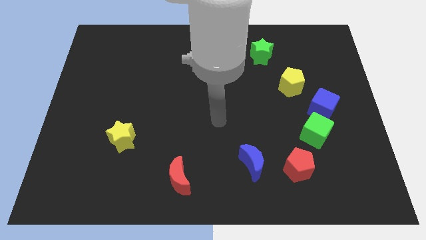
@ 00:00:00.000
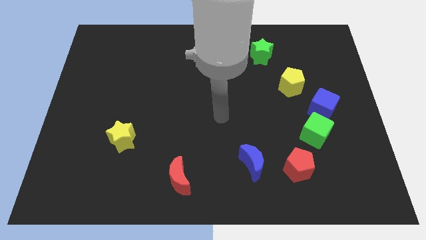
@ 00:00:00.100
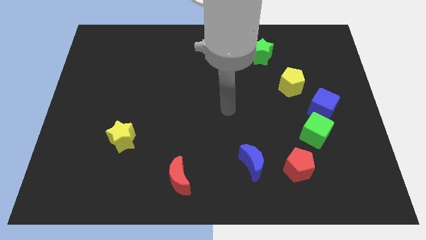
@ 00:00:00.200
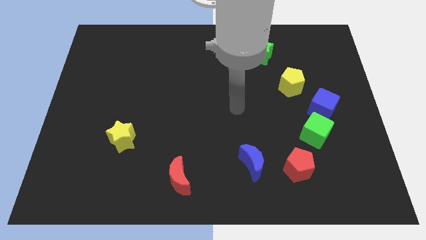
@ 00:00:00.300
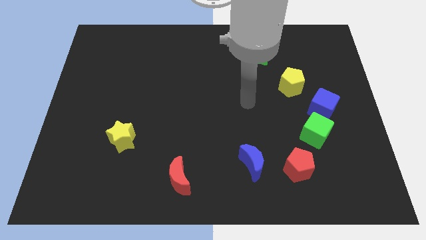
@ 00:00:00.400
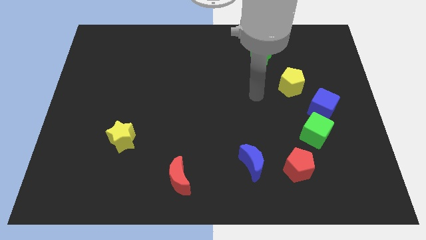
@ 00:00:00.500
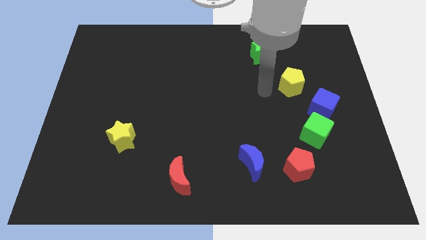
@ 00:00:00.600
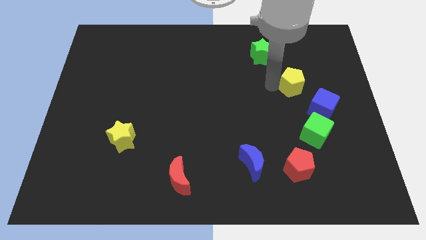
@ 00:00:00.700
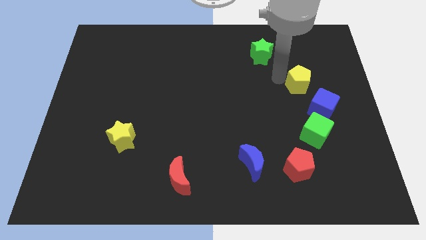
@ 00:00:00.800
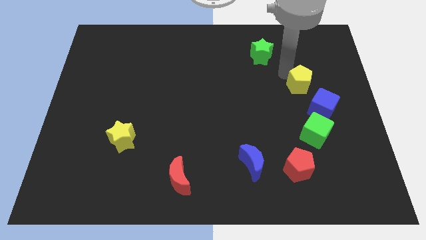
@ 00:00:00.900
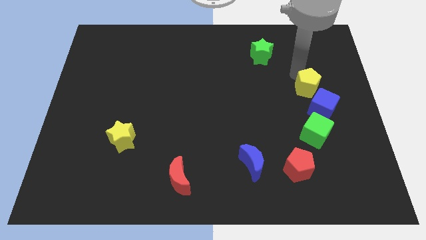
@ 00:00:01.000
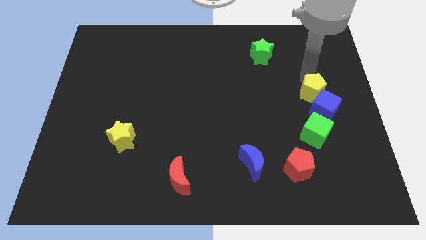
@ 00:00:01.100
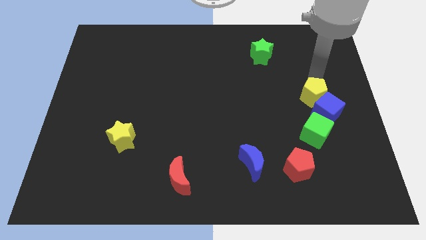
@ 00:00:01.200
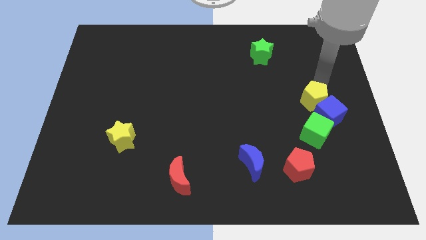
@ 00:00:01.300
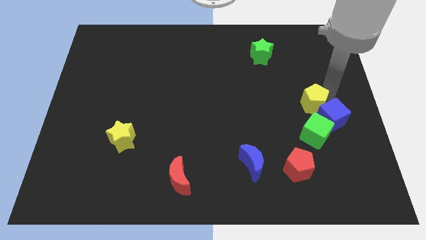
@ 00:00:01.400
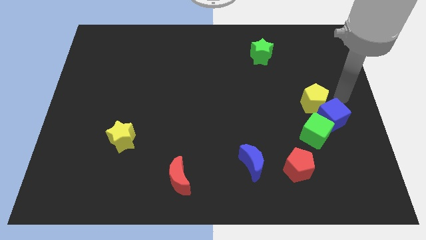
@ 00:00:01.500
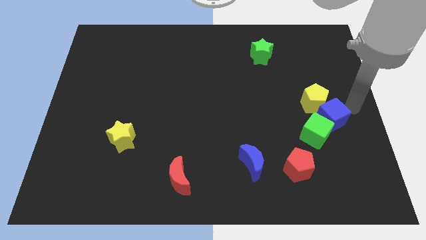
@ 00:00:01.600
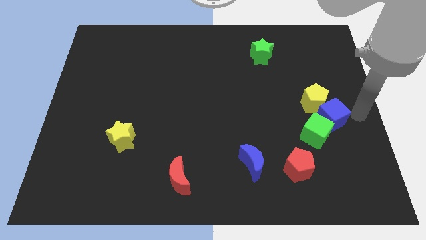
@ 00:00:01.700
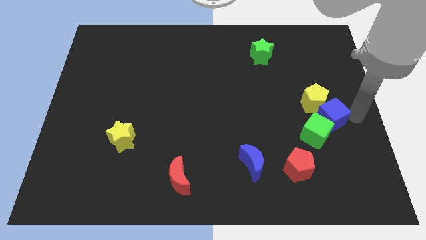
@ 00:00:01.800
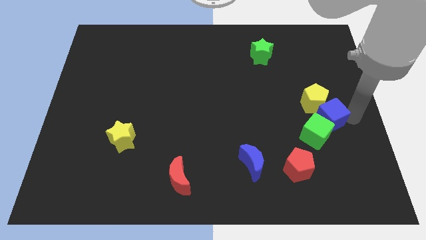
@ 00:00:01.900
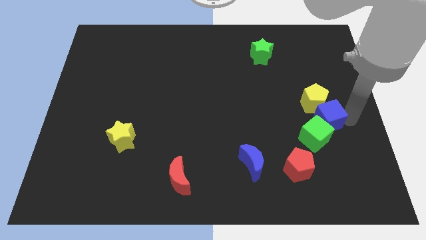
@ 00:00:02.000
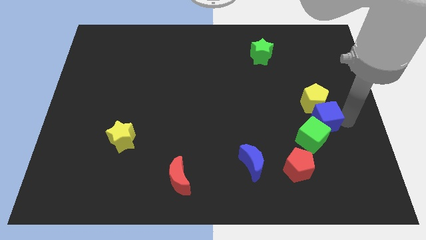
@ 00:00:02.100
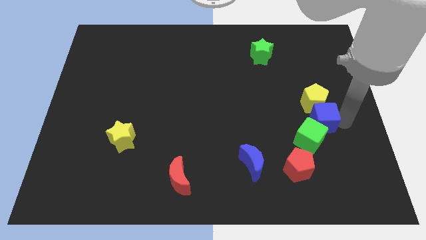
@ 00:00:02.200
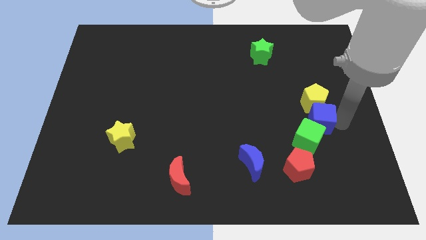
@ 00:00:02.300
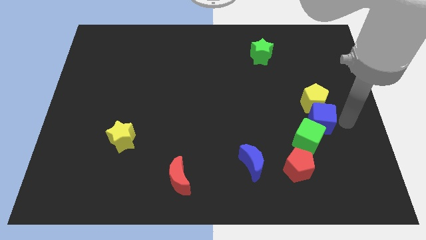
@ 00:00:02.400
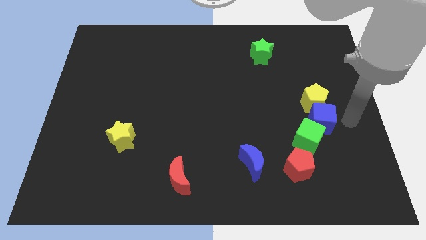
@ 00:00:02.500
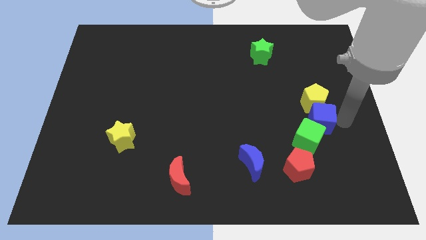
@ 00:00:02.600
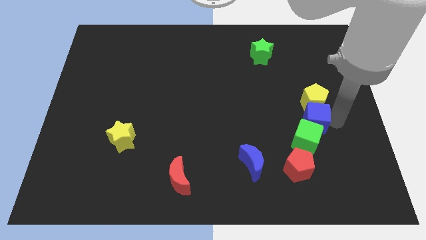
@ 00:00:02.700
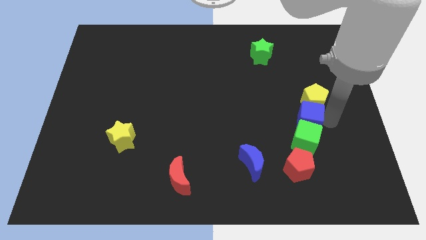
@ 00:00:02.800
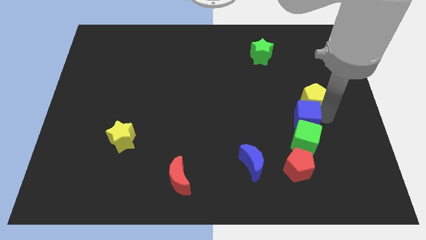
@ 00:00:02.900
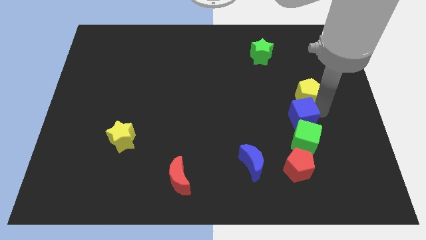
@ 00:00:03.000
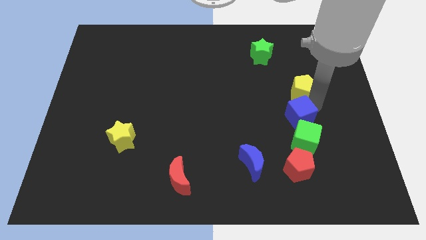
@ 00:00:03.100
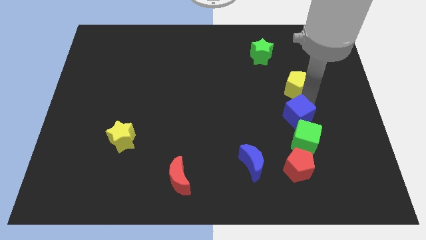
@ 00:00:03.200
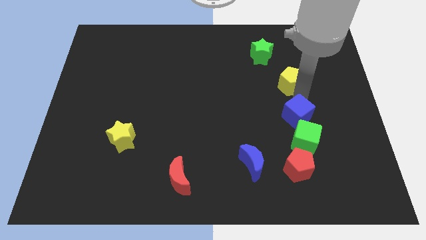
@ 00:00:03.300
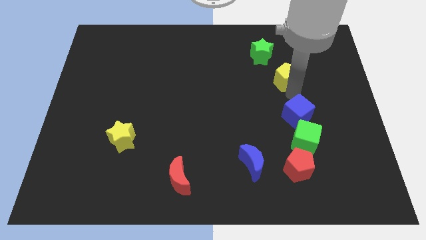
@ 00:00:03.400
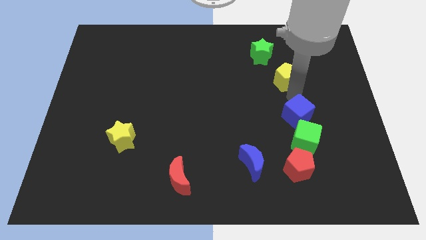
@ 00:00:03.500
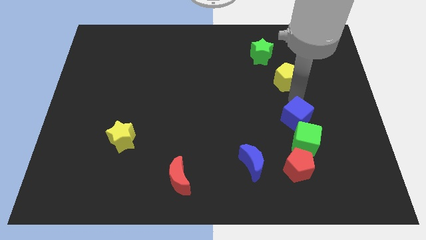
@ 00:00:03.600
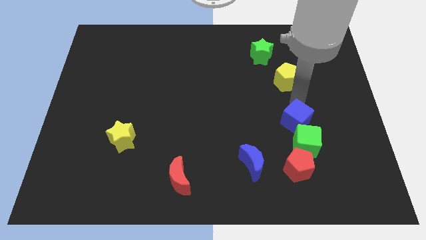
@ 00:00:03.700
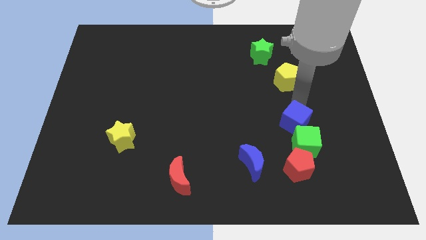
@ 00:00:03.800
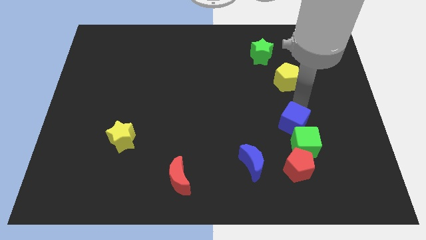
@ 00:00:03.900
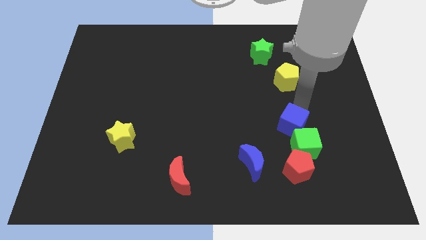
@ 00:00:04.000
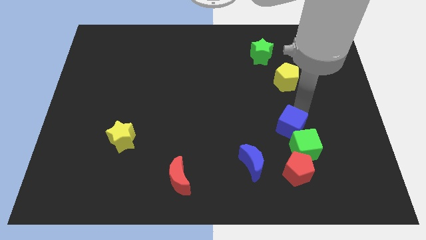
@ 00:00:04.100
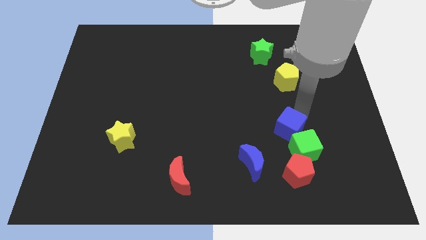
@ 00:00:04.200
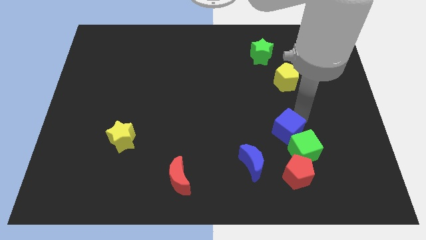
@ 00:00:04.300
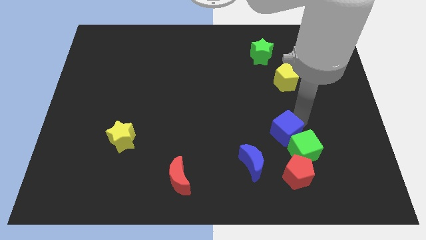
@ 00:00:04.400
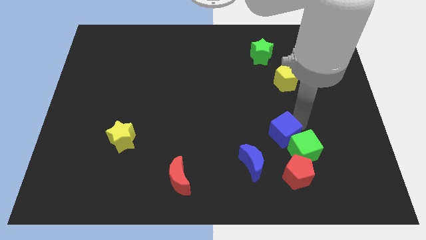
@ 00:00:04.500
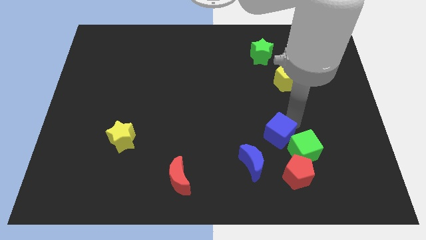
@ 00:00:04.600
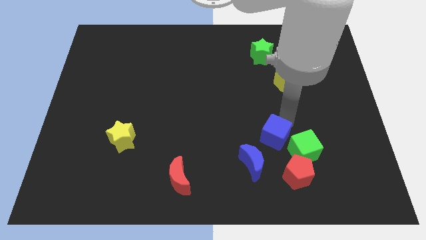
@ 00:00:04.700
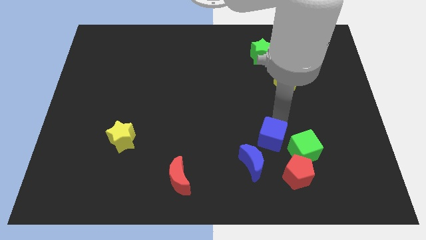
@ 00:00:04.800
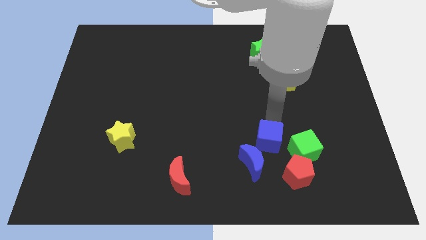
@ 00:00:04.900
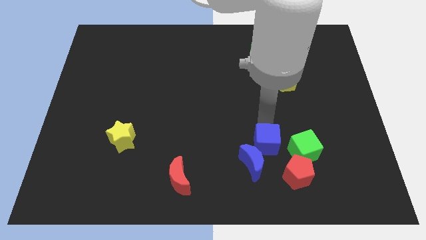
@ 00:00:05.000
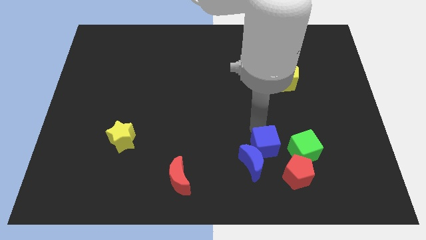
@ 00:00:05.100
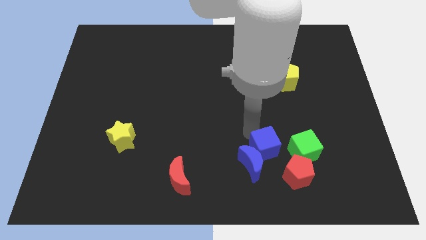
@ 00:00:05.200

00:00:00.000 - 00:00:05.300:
move the blue cube right of the blue moon

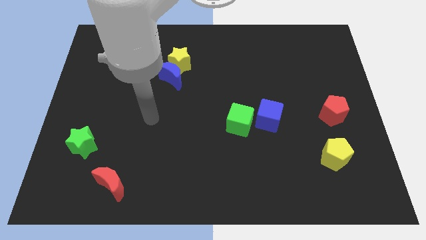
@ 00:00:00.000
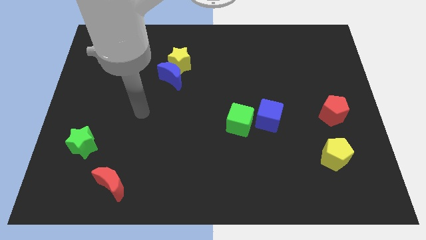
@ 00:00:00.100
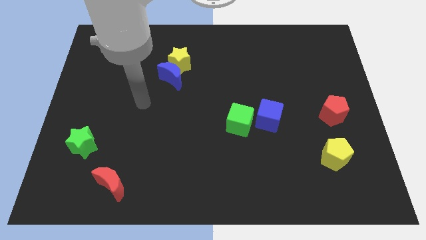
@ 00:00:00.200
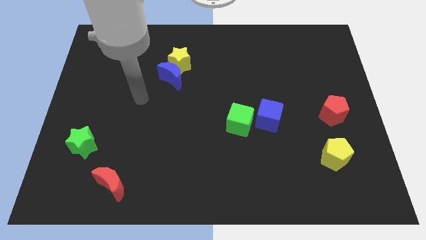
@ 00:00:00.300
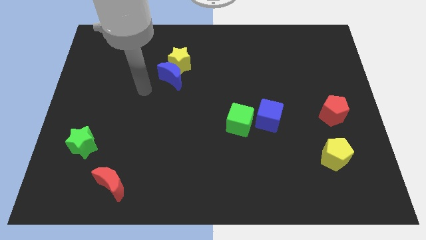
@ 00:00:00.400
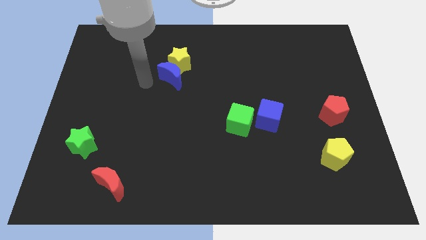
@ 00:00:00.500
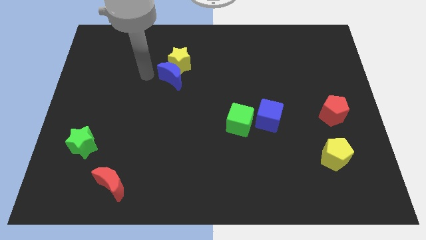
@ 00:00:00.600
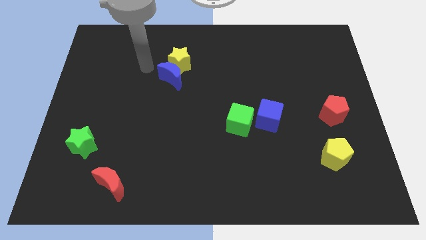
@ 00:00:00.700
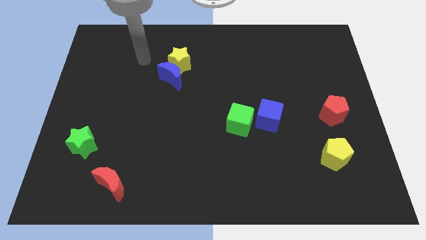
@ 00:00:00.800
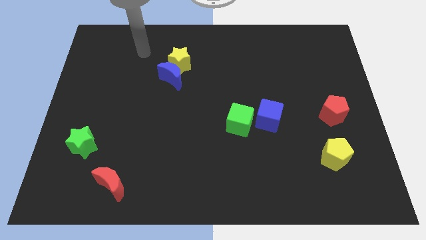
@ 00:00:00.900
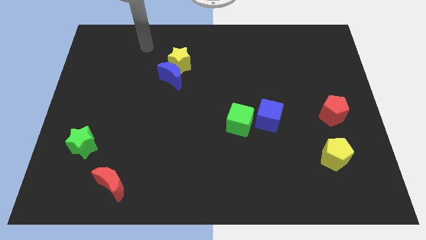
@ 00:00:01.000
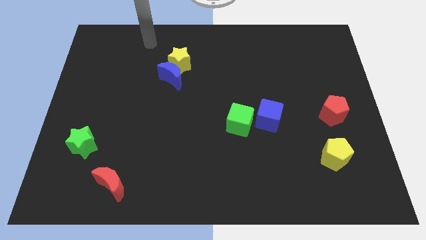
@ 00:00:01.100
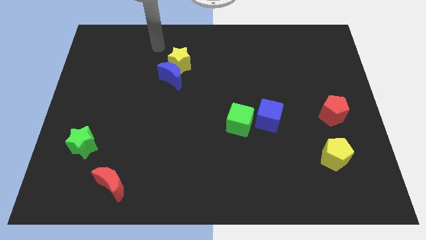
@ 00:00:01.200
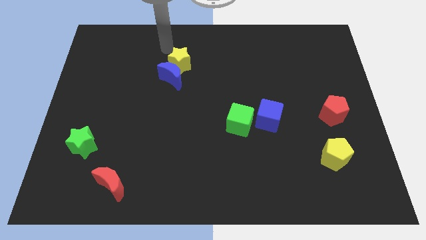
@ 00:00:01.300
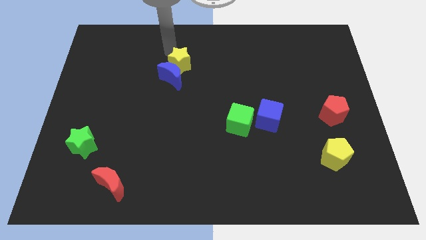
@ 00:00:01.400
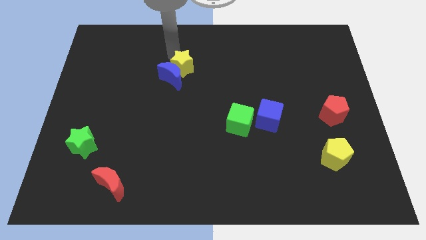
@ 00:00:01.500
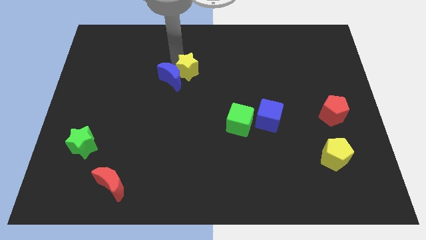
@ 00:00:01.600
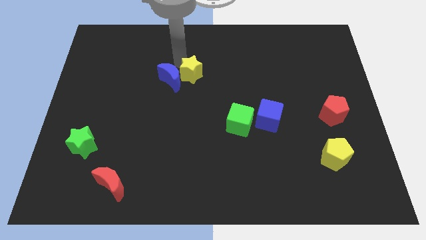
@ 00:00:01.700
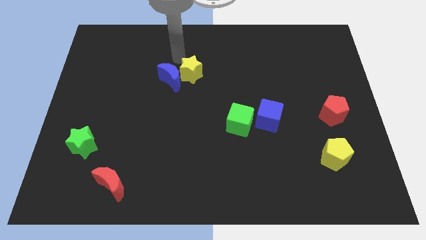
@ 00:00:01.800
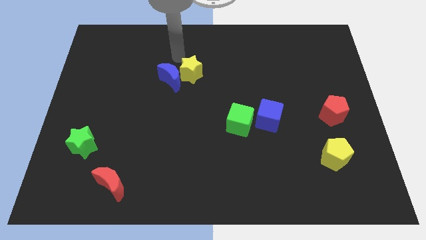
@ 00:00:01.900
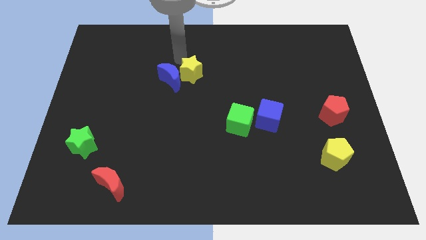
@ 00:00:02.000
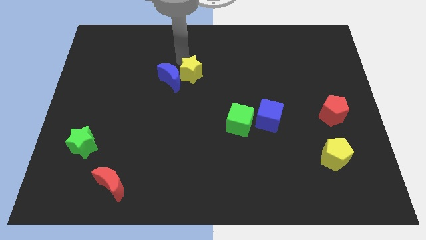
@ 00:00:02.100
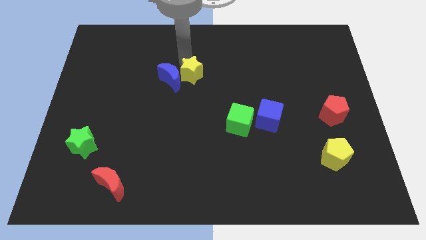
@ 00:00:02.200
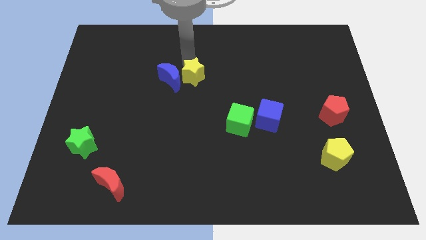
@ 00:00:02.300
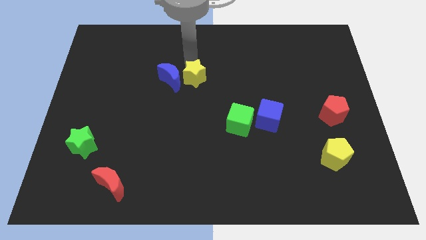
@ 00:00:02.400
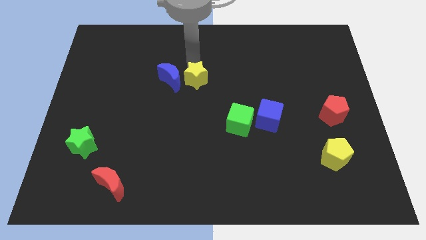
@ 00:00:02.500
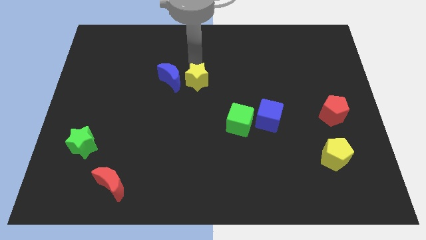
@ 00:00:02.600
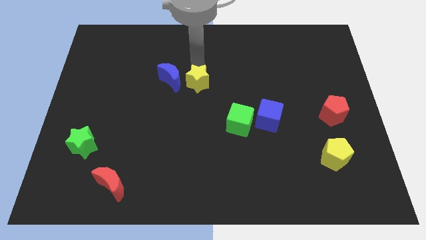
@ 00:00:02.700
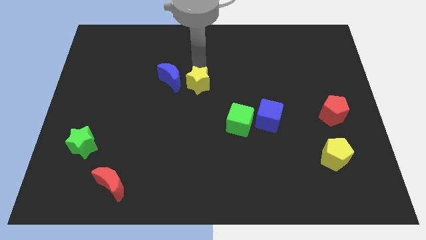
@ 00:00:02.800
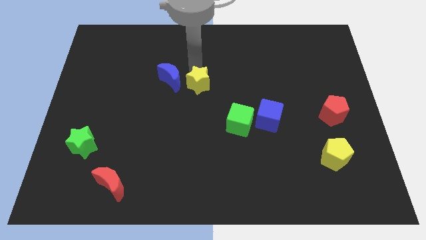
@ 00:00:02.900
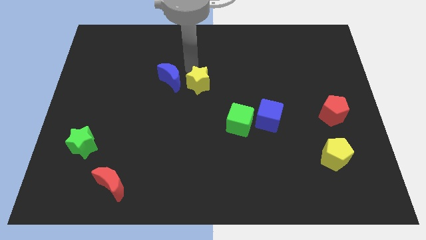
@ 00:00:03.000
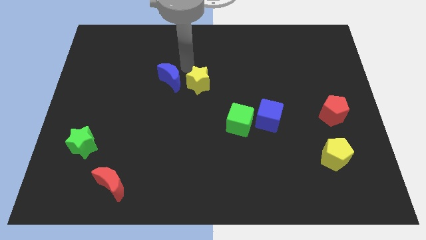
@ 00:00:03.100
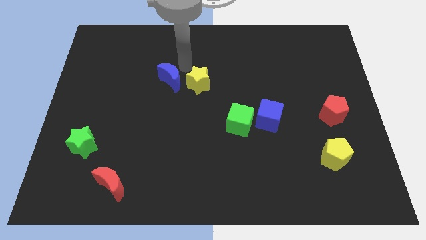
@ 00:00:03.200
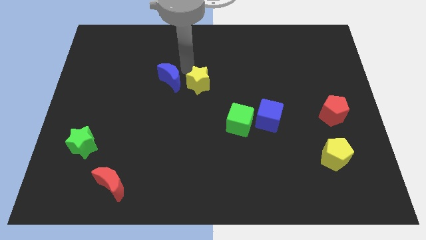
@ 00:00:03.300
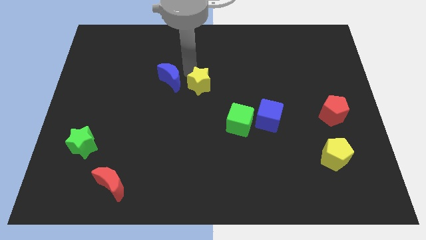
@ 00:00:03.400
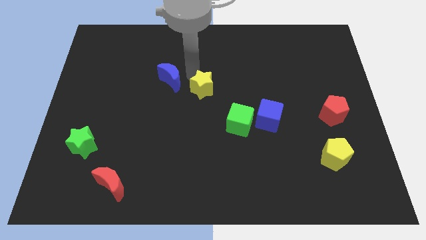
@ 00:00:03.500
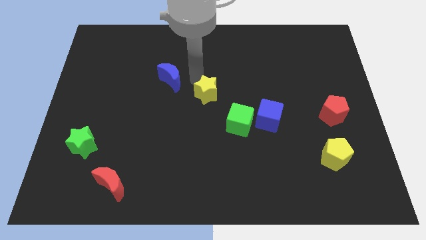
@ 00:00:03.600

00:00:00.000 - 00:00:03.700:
push the yellow star to the top left side of the green cube
